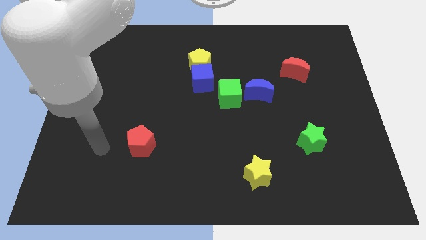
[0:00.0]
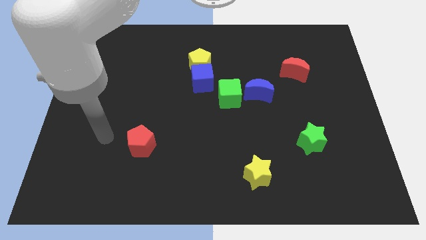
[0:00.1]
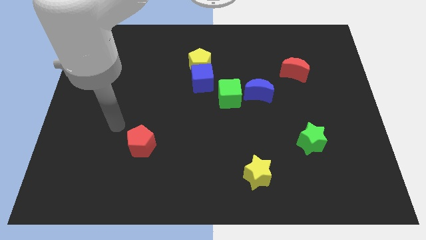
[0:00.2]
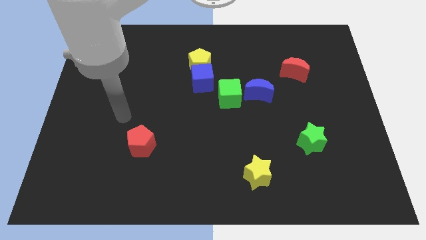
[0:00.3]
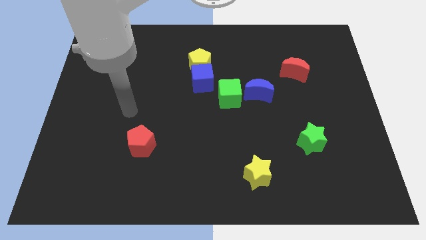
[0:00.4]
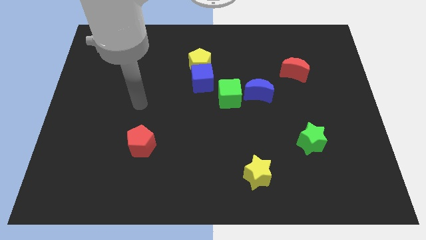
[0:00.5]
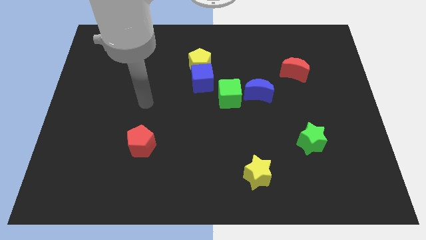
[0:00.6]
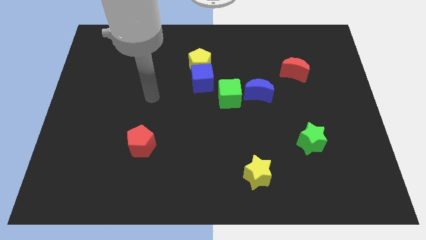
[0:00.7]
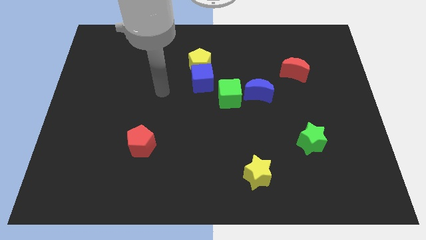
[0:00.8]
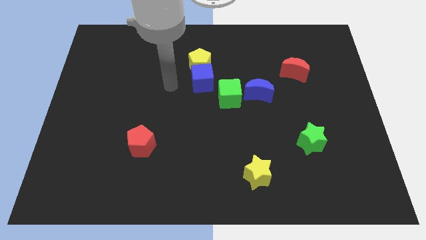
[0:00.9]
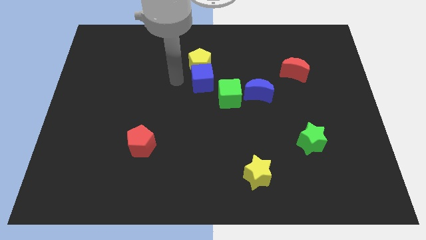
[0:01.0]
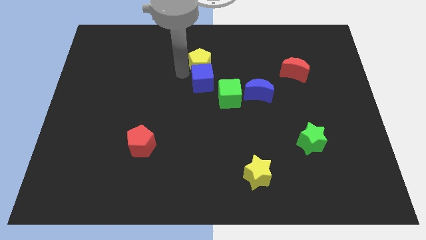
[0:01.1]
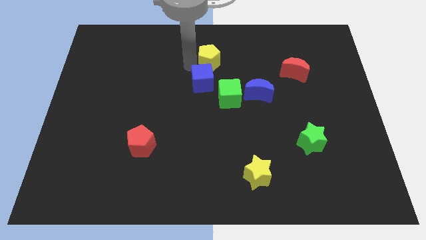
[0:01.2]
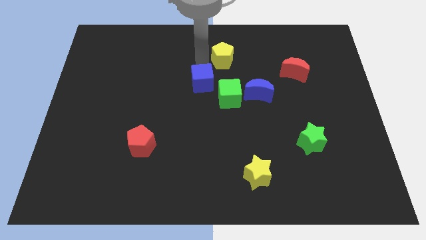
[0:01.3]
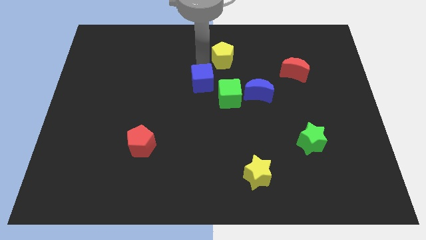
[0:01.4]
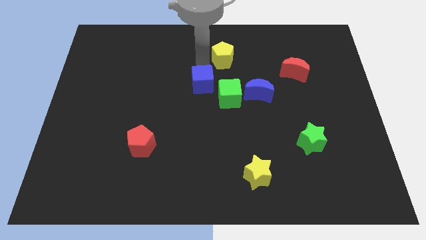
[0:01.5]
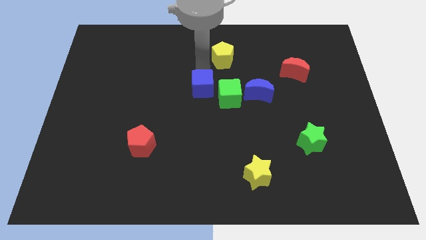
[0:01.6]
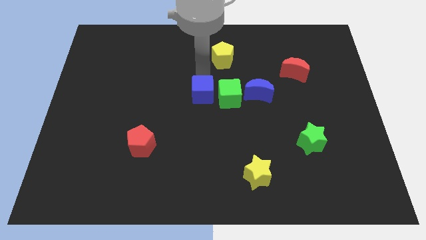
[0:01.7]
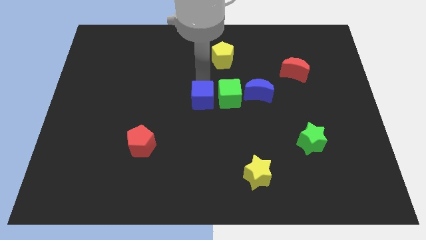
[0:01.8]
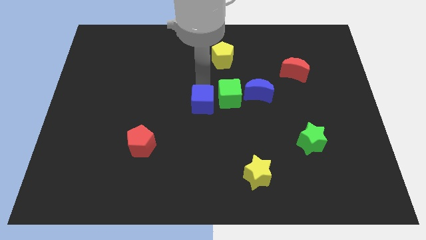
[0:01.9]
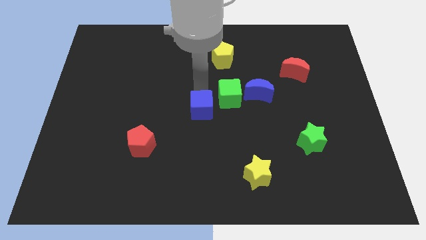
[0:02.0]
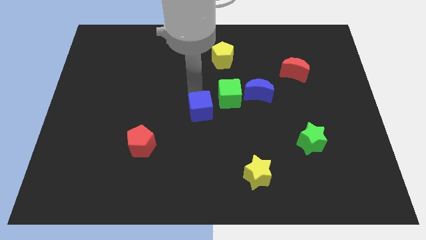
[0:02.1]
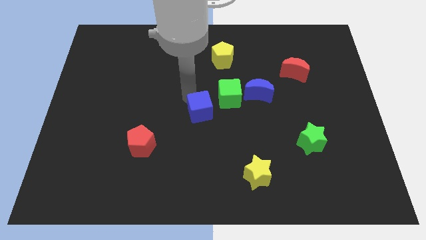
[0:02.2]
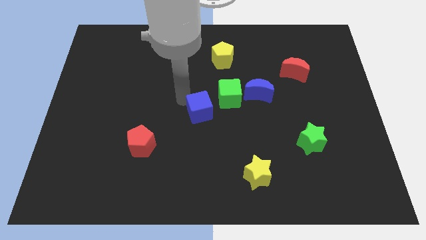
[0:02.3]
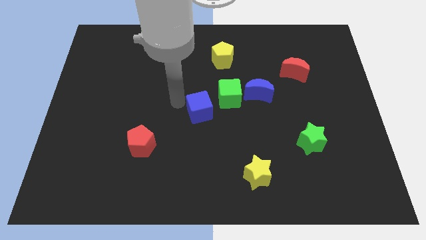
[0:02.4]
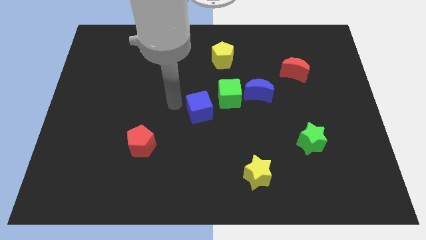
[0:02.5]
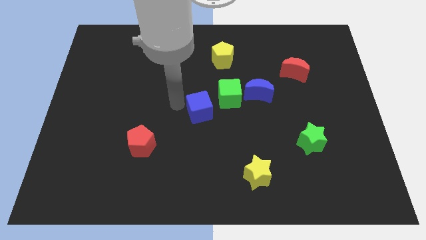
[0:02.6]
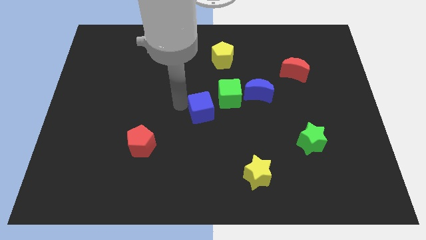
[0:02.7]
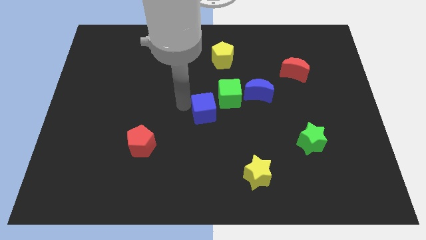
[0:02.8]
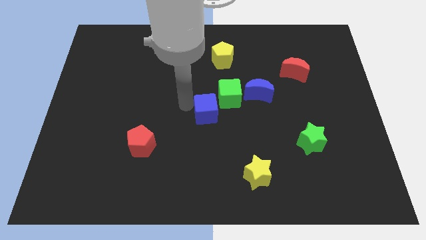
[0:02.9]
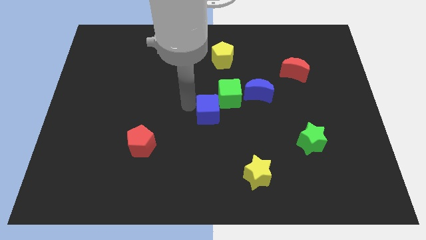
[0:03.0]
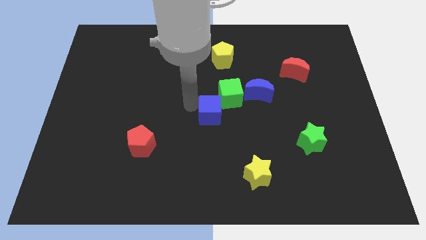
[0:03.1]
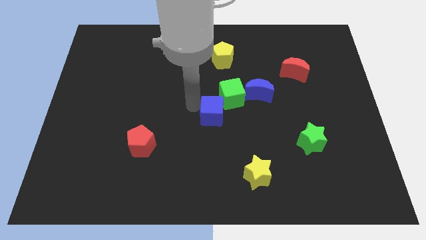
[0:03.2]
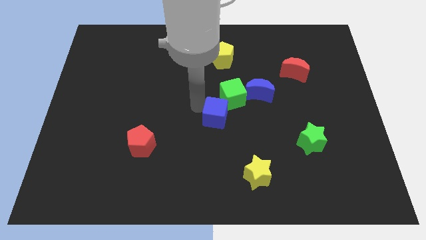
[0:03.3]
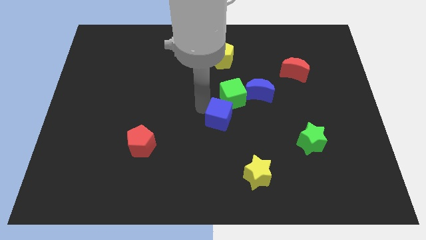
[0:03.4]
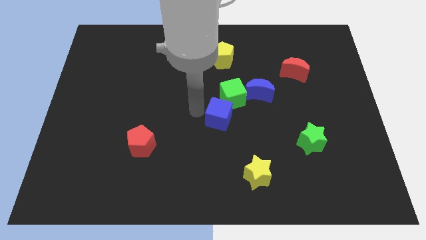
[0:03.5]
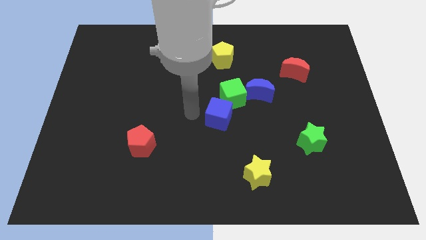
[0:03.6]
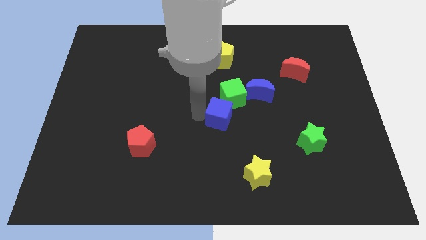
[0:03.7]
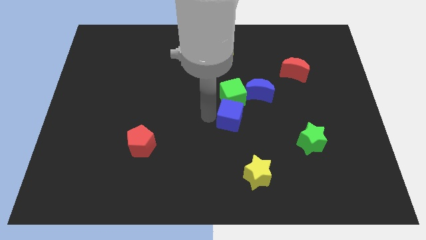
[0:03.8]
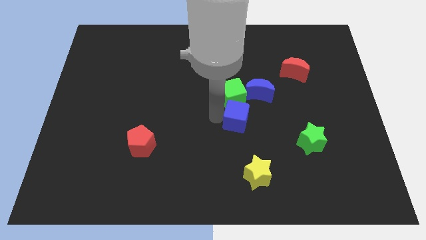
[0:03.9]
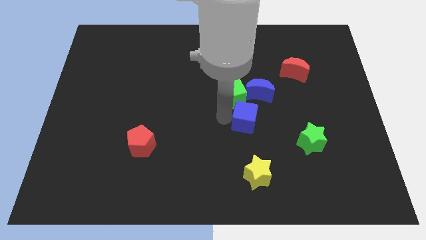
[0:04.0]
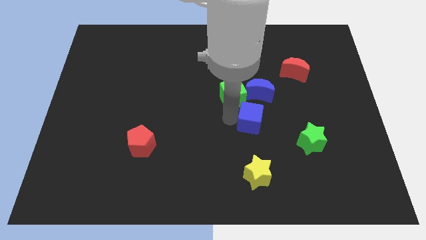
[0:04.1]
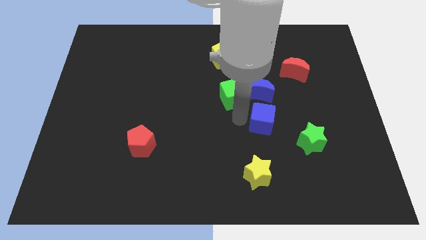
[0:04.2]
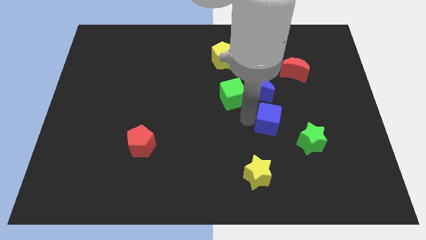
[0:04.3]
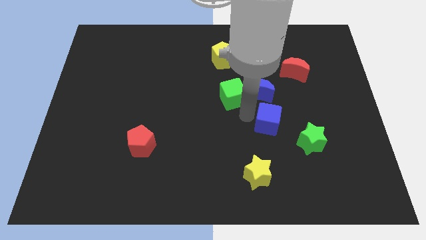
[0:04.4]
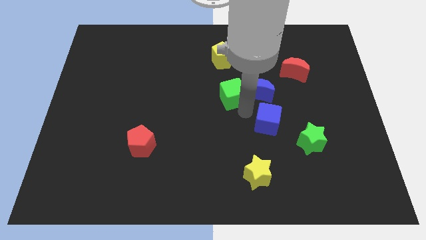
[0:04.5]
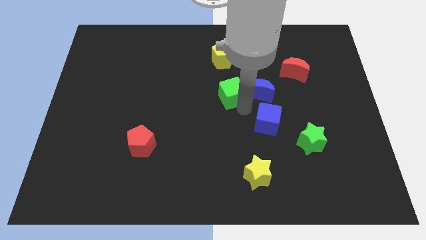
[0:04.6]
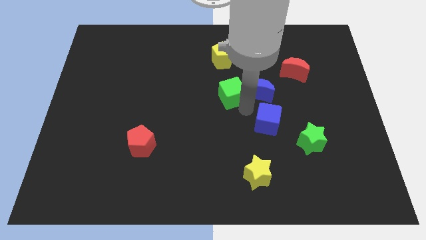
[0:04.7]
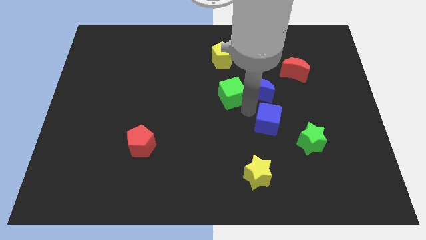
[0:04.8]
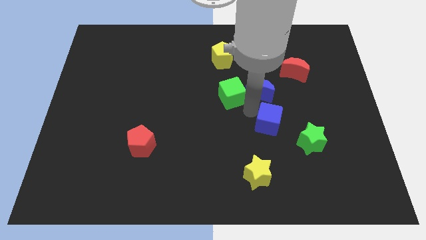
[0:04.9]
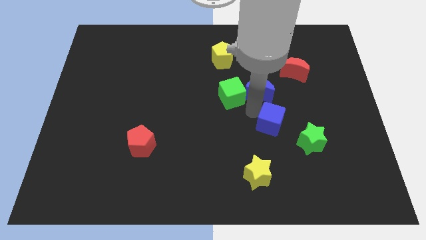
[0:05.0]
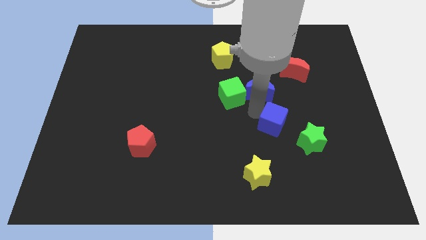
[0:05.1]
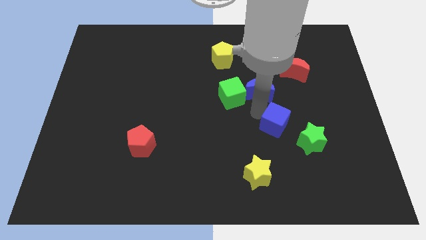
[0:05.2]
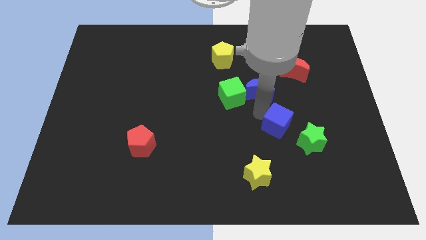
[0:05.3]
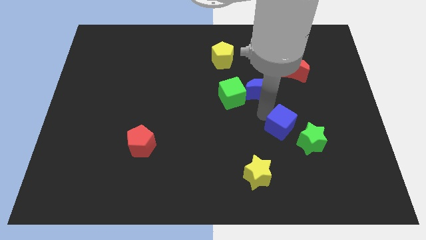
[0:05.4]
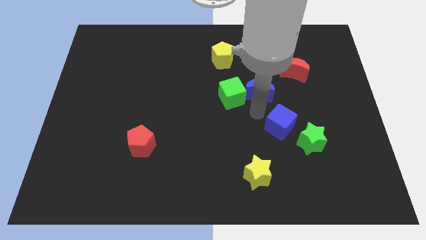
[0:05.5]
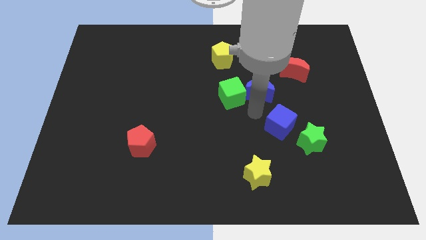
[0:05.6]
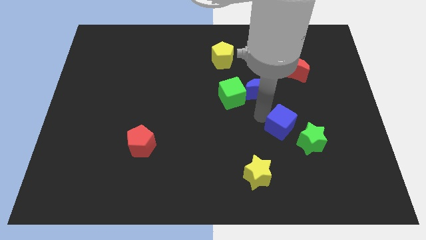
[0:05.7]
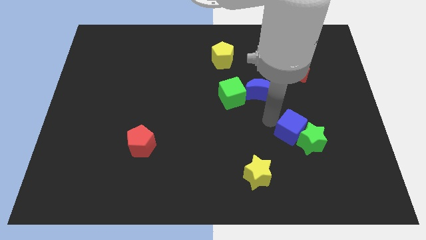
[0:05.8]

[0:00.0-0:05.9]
slide the blue cube towards the green star

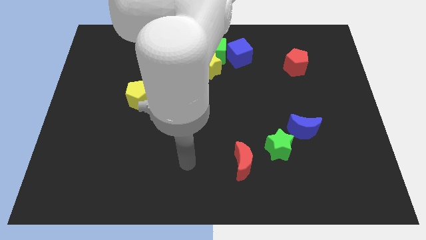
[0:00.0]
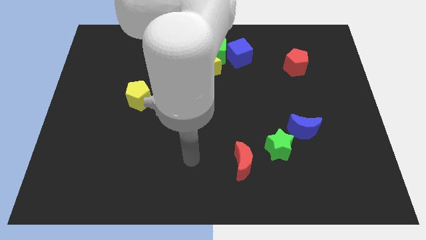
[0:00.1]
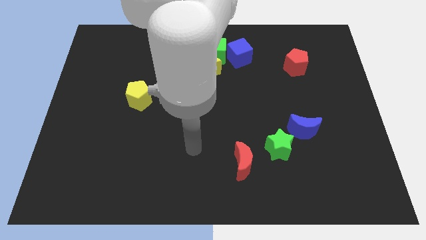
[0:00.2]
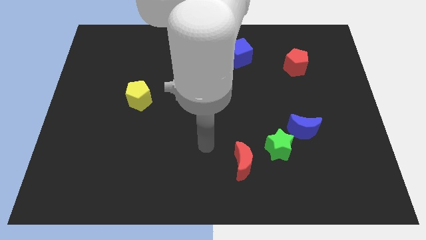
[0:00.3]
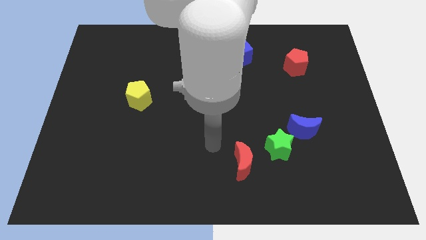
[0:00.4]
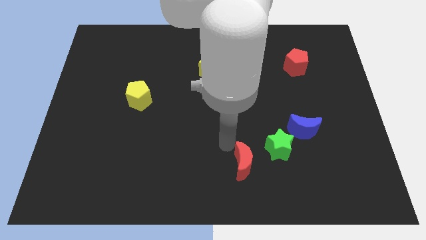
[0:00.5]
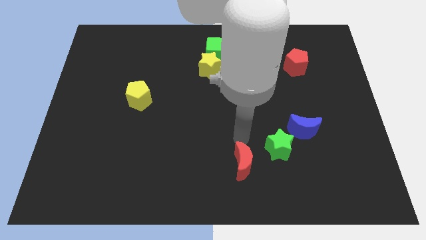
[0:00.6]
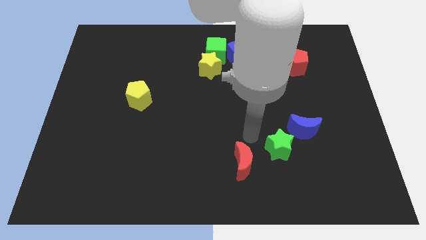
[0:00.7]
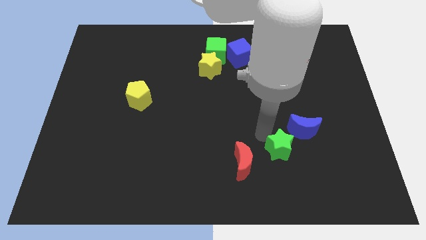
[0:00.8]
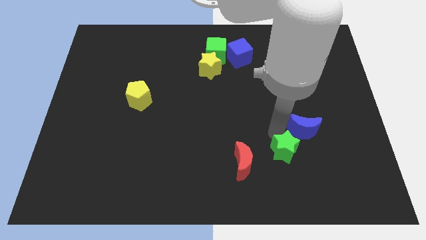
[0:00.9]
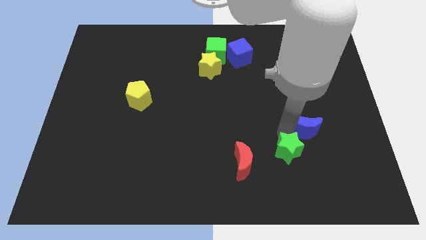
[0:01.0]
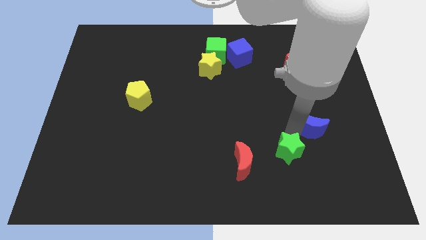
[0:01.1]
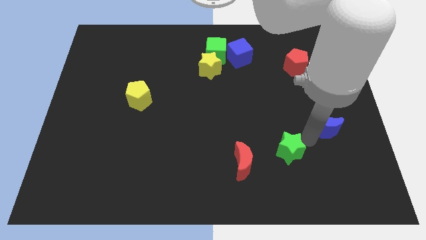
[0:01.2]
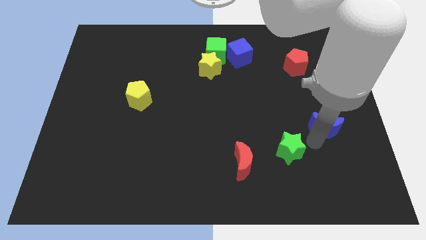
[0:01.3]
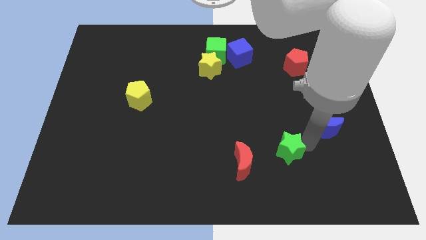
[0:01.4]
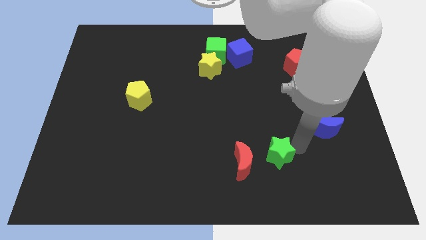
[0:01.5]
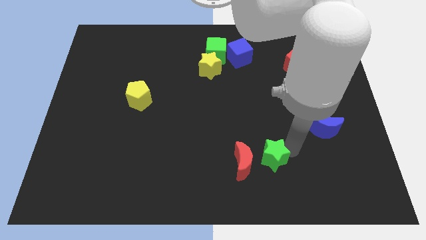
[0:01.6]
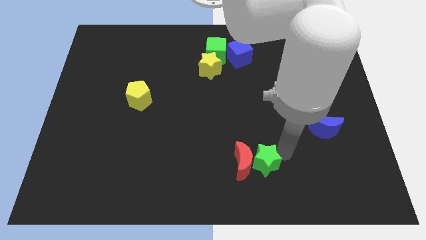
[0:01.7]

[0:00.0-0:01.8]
put the green star to the red moon

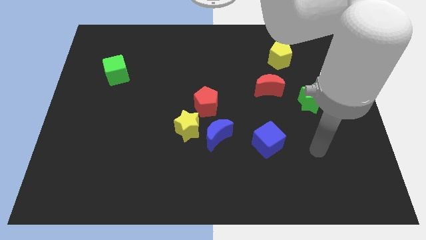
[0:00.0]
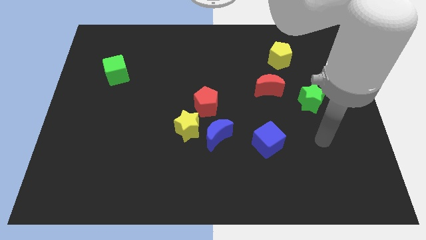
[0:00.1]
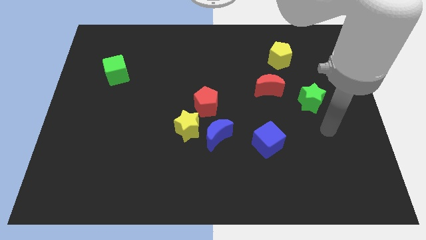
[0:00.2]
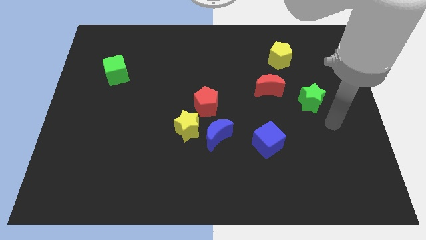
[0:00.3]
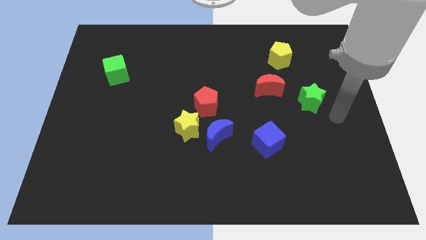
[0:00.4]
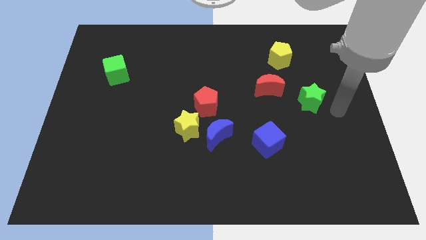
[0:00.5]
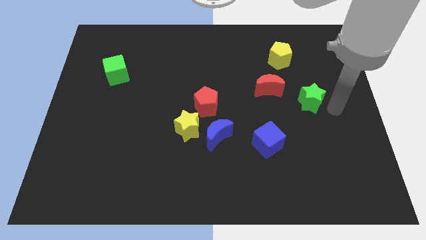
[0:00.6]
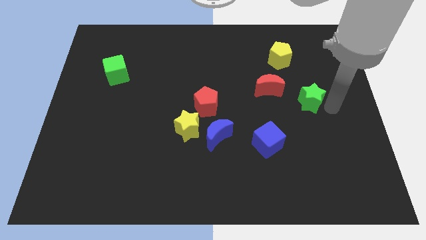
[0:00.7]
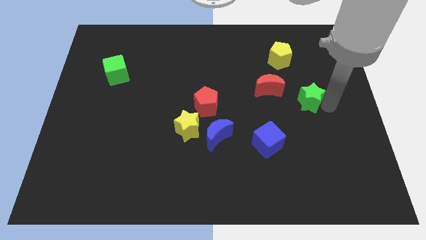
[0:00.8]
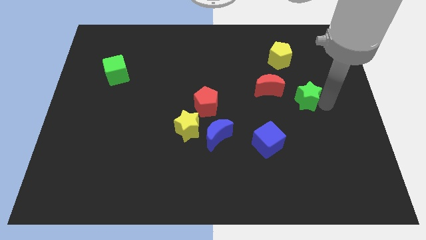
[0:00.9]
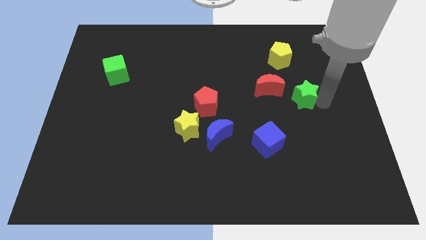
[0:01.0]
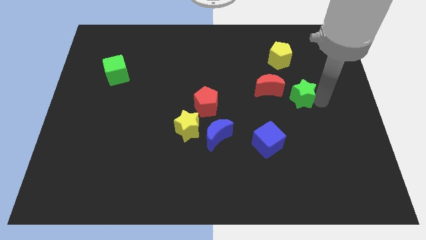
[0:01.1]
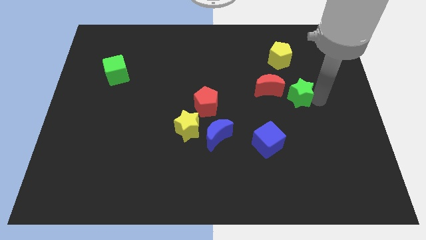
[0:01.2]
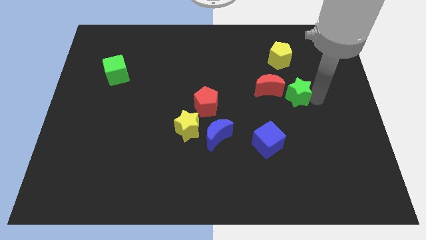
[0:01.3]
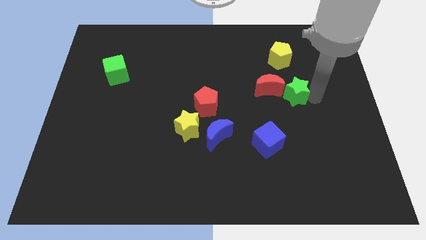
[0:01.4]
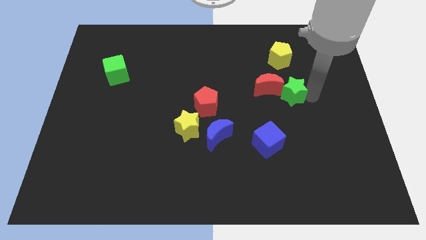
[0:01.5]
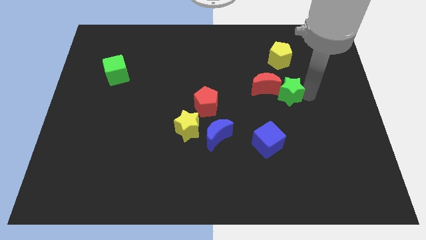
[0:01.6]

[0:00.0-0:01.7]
push the green star close to the red moon
